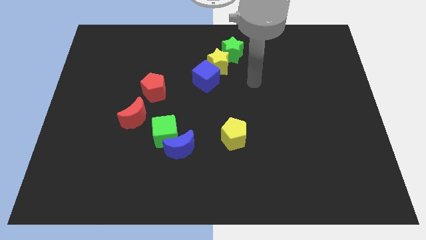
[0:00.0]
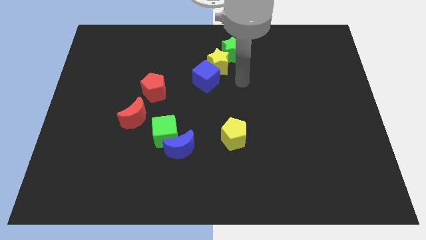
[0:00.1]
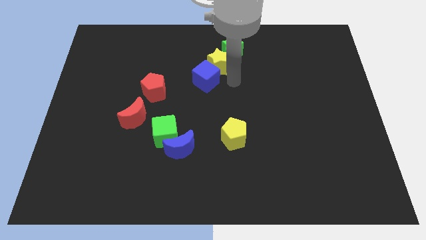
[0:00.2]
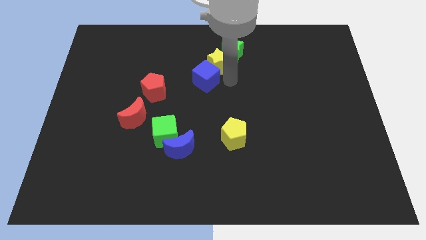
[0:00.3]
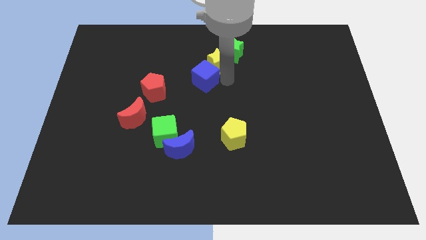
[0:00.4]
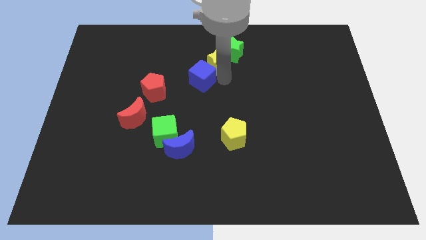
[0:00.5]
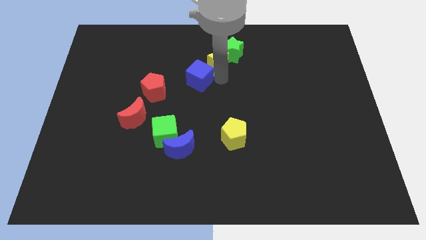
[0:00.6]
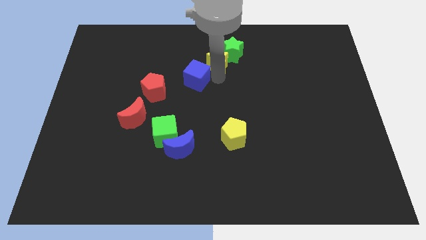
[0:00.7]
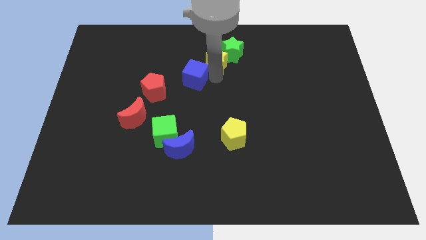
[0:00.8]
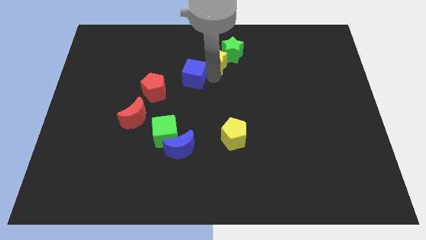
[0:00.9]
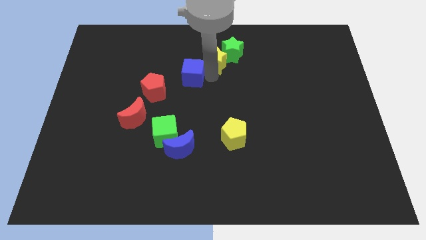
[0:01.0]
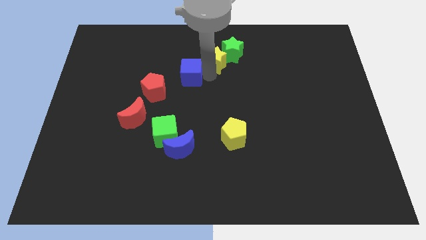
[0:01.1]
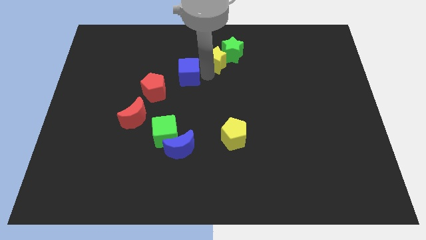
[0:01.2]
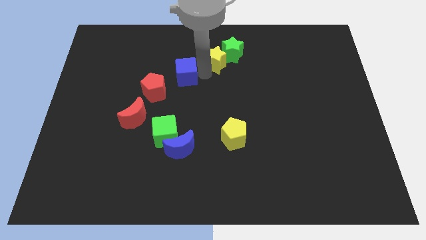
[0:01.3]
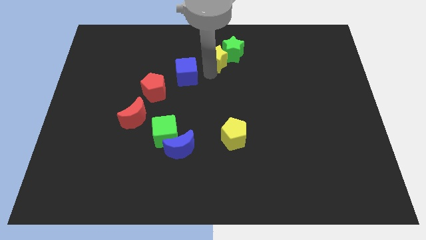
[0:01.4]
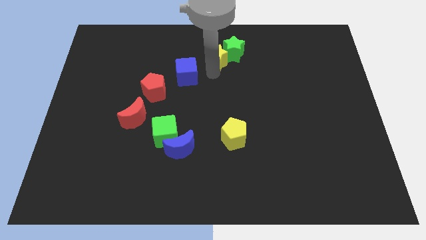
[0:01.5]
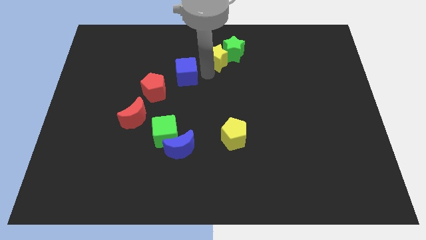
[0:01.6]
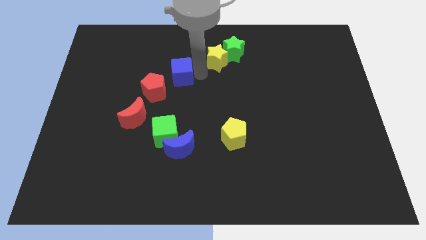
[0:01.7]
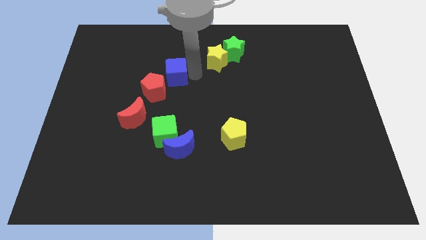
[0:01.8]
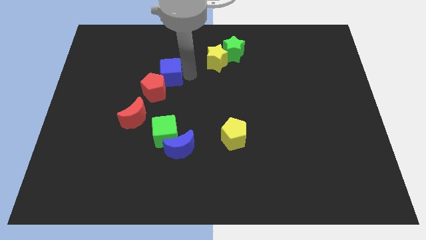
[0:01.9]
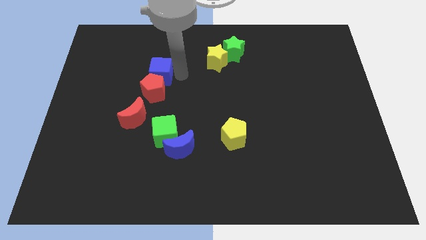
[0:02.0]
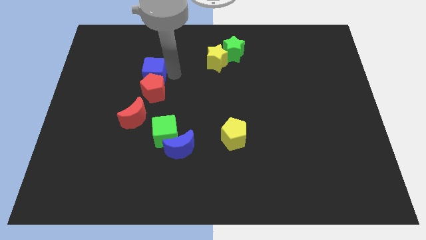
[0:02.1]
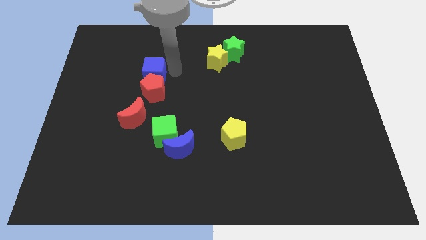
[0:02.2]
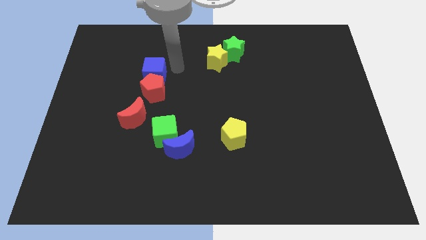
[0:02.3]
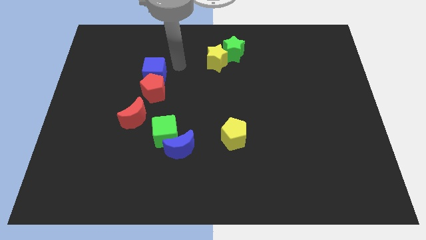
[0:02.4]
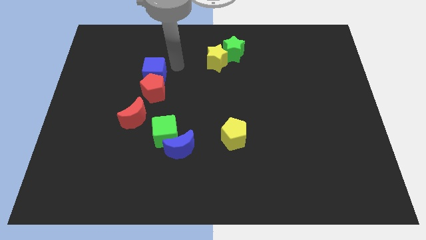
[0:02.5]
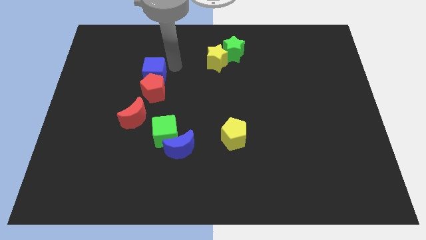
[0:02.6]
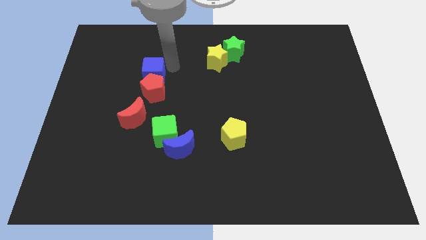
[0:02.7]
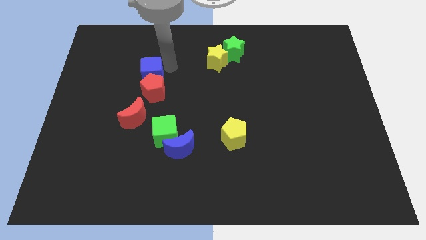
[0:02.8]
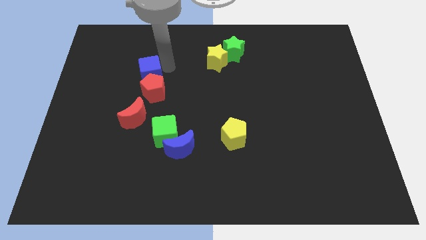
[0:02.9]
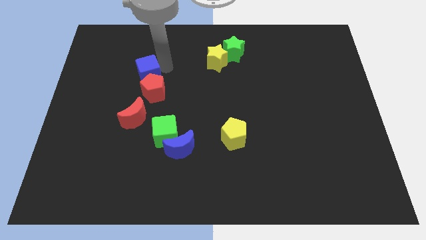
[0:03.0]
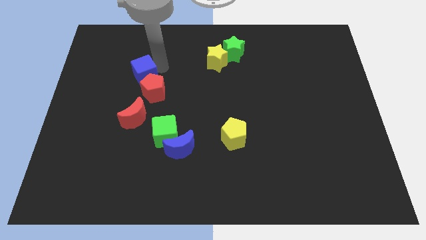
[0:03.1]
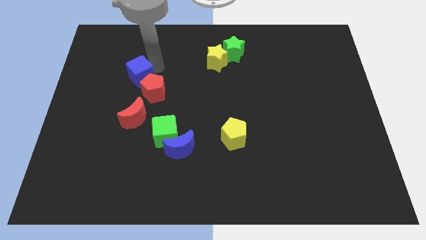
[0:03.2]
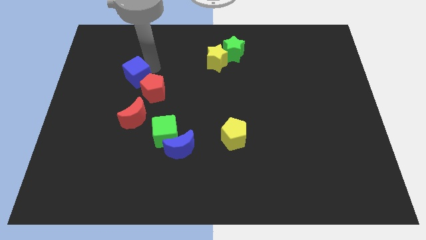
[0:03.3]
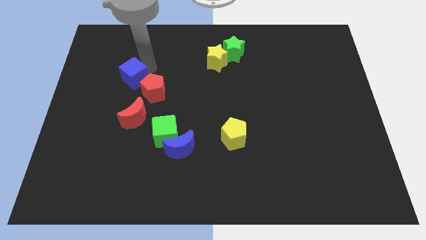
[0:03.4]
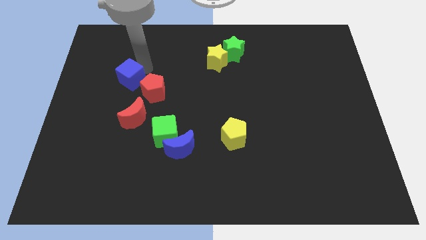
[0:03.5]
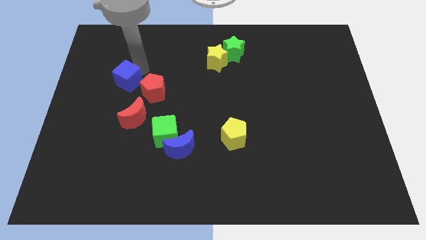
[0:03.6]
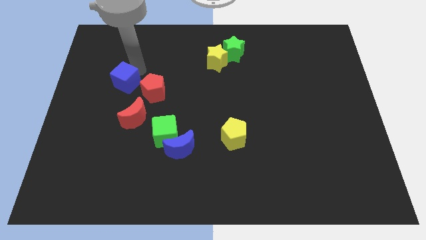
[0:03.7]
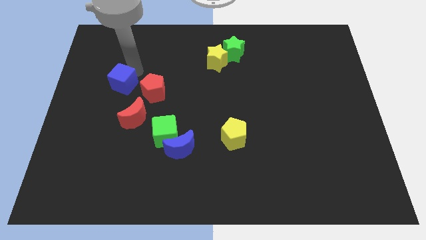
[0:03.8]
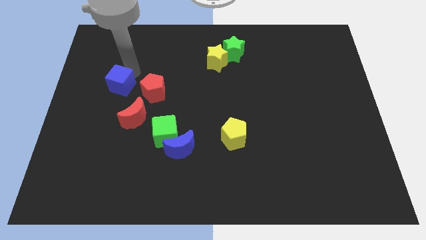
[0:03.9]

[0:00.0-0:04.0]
move the blue cube to the top left of the red moon

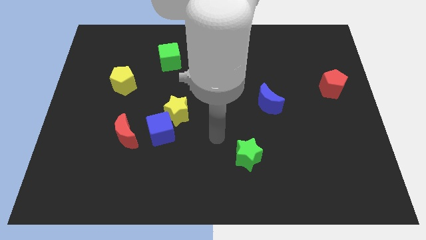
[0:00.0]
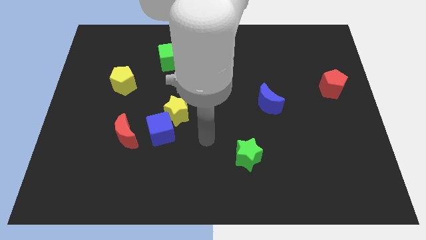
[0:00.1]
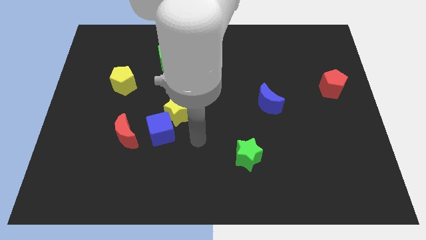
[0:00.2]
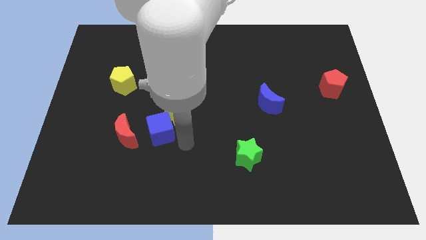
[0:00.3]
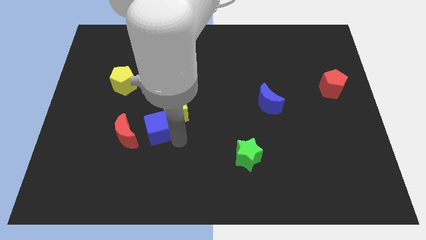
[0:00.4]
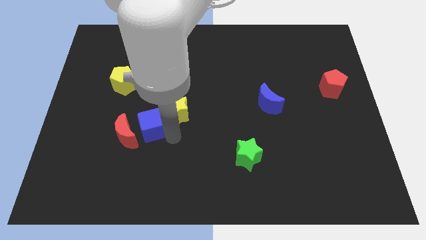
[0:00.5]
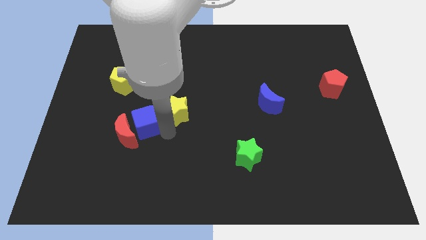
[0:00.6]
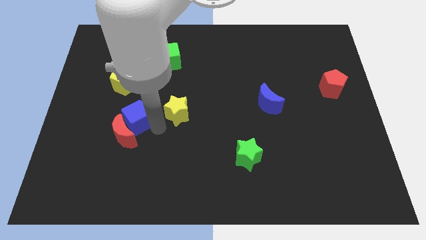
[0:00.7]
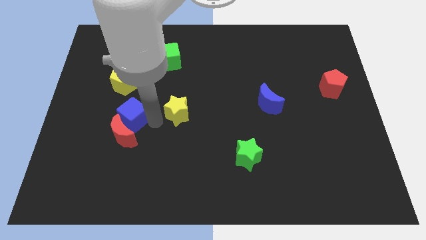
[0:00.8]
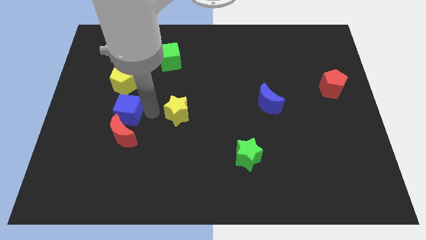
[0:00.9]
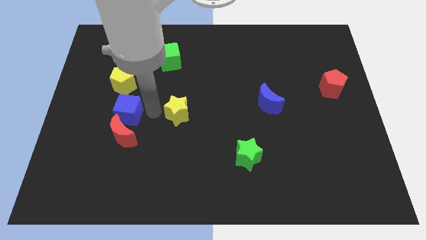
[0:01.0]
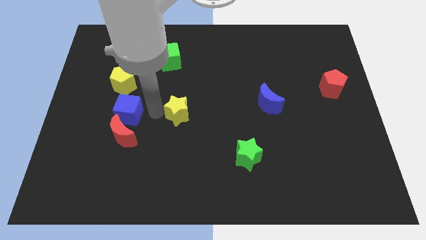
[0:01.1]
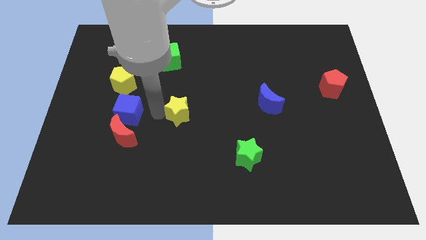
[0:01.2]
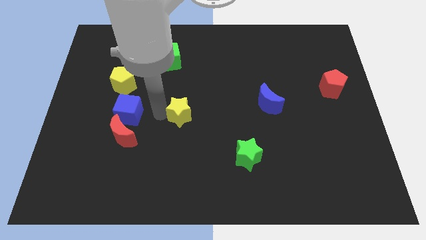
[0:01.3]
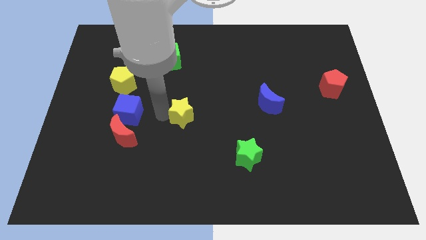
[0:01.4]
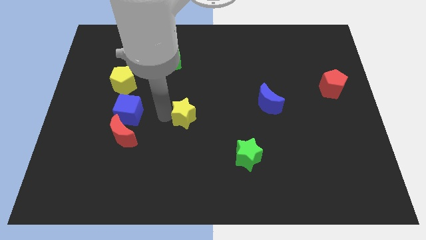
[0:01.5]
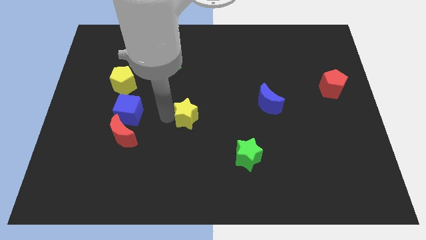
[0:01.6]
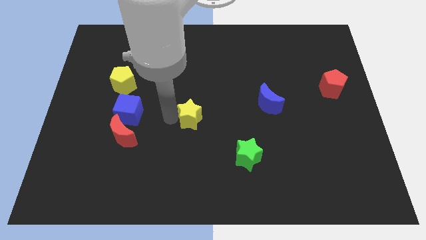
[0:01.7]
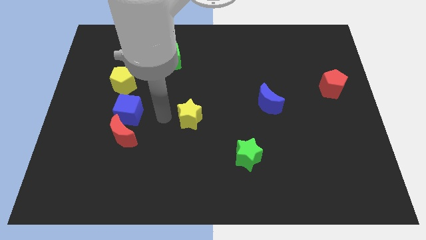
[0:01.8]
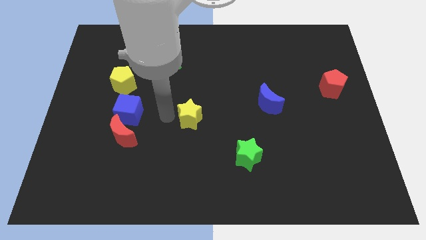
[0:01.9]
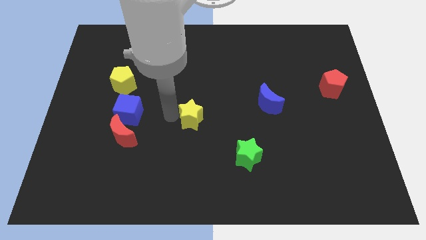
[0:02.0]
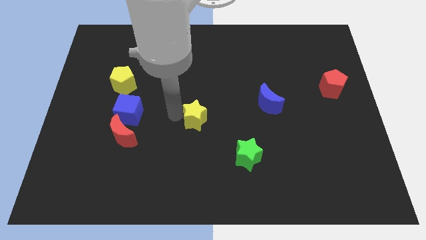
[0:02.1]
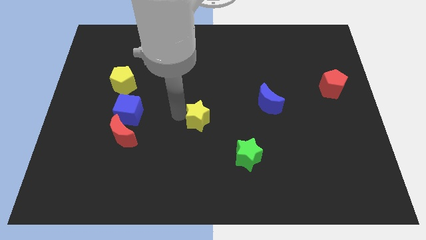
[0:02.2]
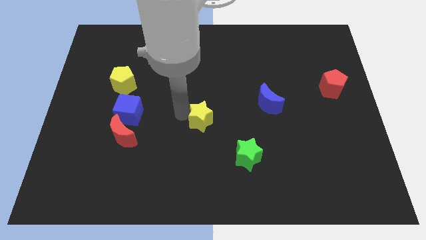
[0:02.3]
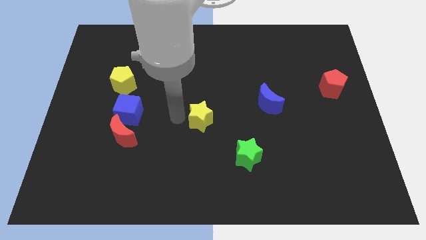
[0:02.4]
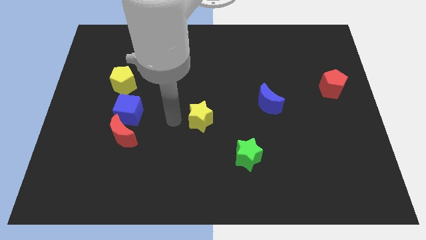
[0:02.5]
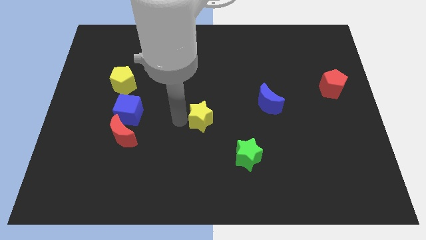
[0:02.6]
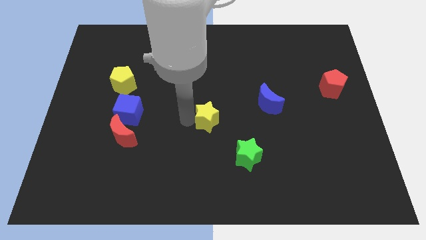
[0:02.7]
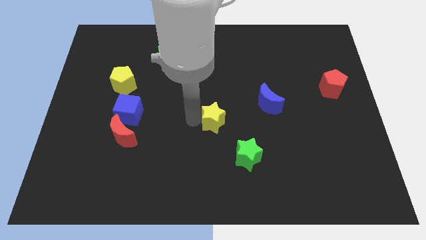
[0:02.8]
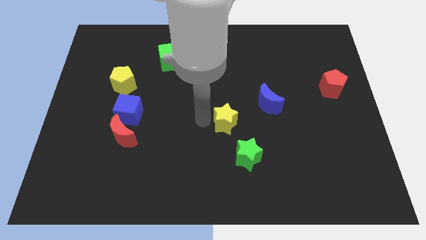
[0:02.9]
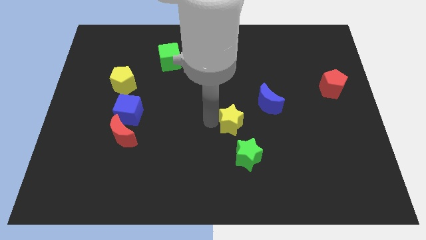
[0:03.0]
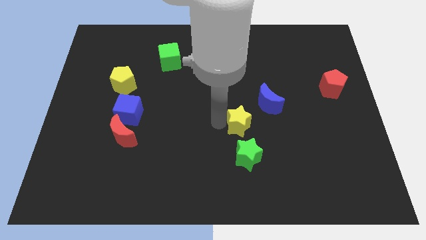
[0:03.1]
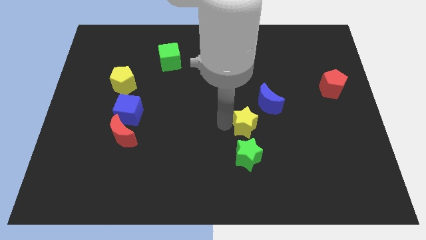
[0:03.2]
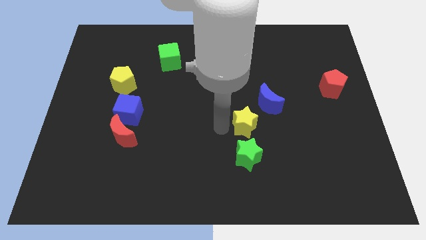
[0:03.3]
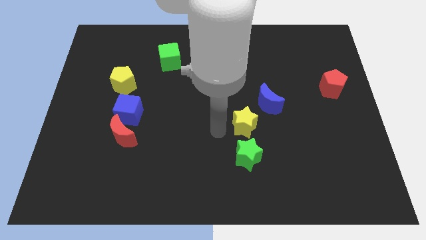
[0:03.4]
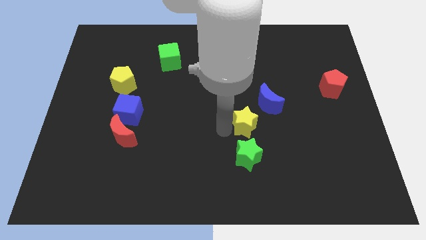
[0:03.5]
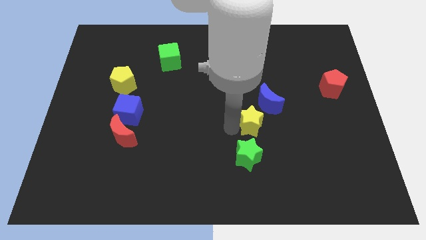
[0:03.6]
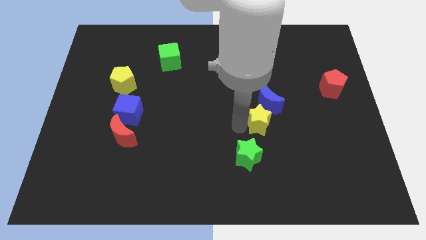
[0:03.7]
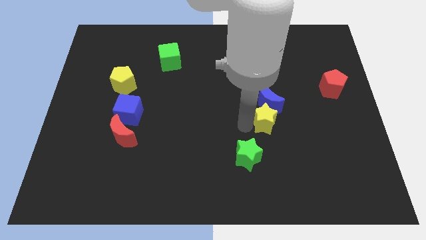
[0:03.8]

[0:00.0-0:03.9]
put the yellow star to the bottom right side of the blue moon
